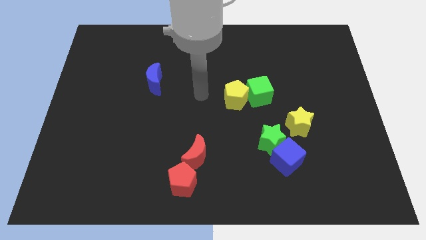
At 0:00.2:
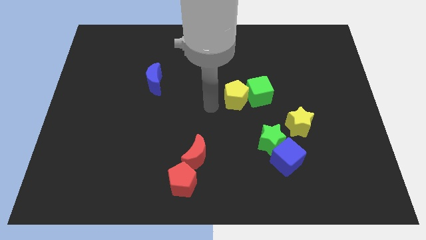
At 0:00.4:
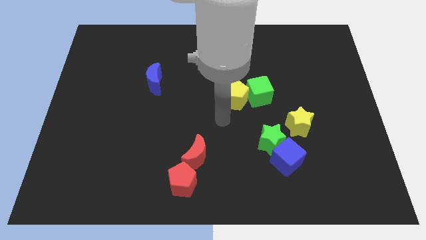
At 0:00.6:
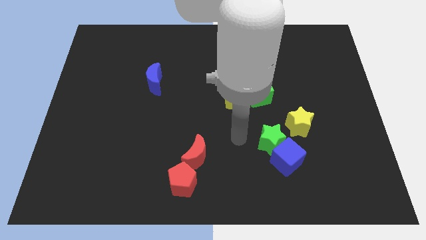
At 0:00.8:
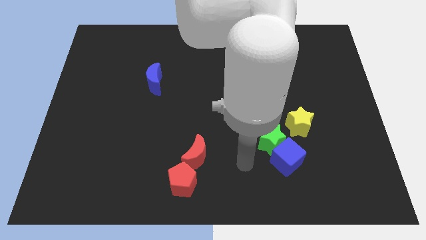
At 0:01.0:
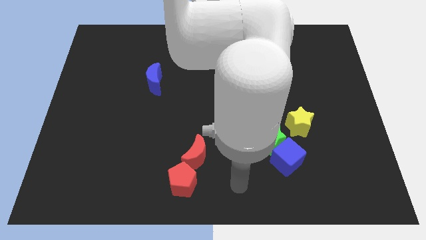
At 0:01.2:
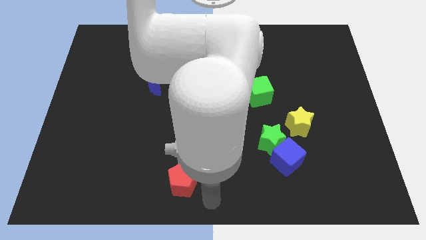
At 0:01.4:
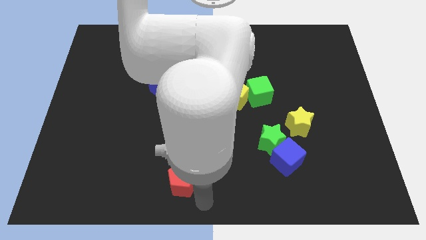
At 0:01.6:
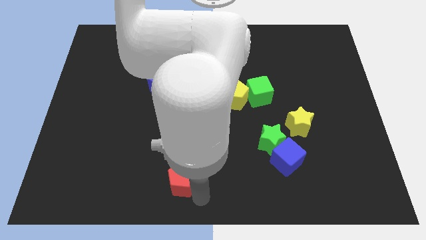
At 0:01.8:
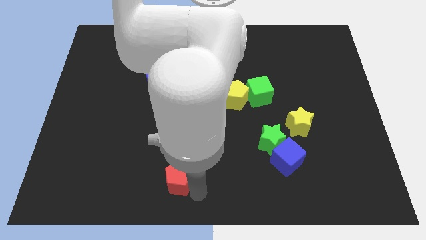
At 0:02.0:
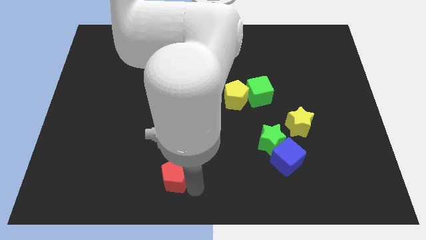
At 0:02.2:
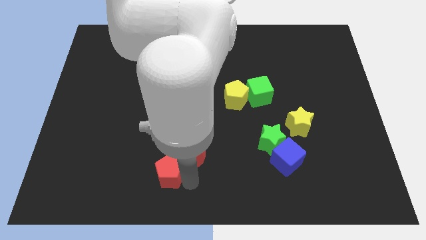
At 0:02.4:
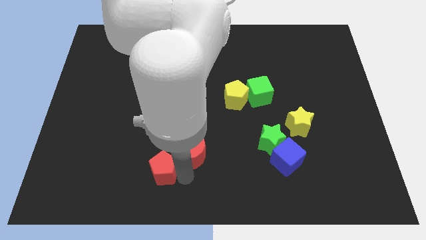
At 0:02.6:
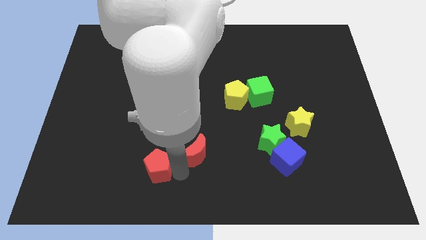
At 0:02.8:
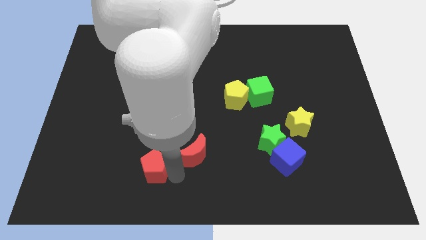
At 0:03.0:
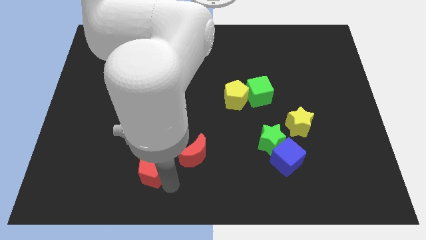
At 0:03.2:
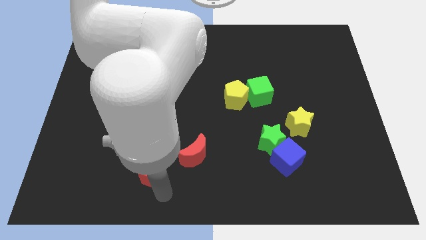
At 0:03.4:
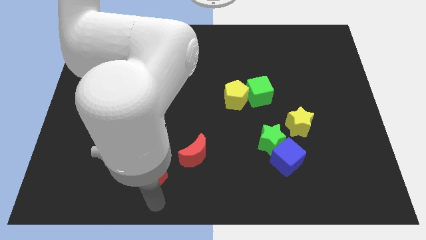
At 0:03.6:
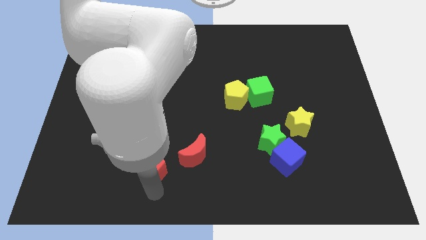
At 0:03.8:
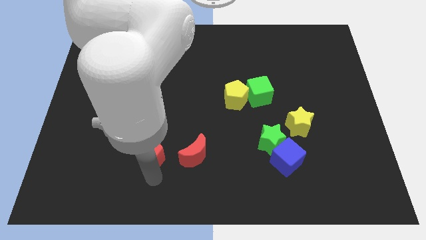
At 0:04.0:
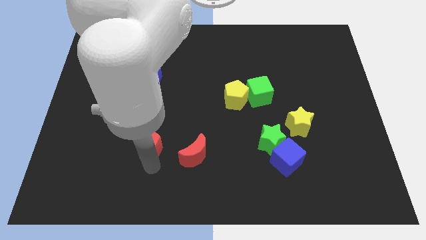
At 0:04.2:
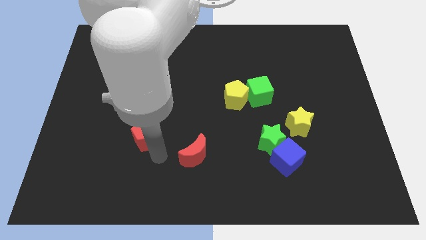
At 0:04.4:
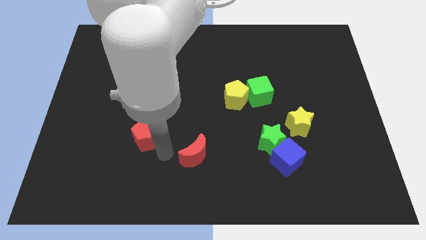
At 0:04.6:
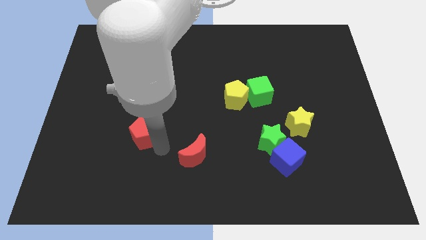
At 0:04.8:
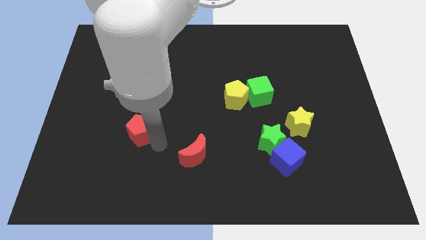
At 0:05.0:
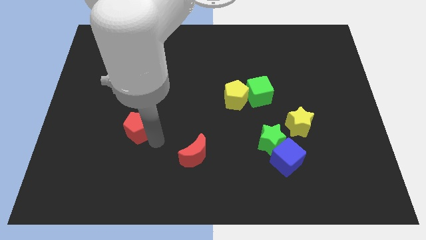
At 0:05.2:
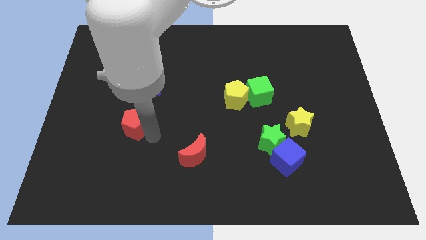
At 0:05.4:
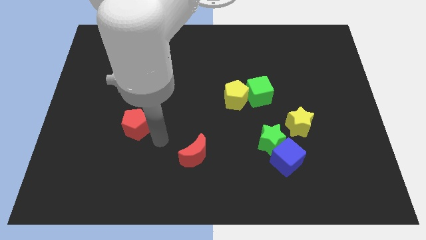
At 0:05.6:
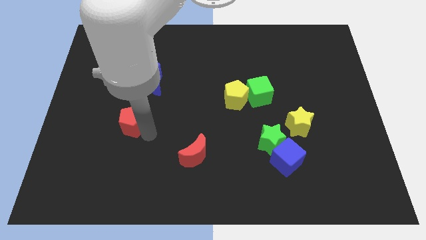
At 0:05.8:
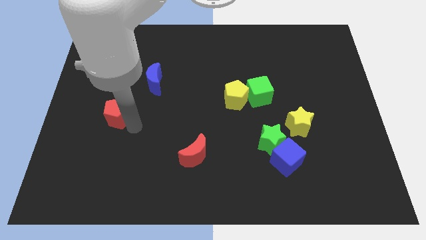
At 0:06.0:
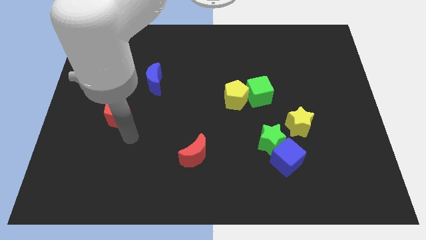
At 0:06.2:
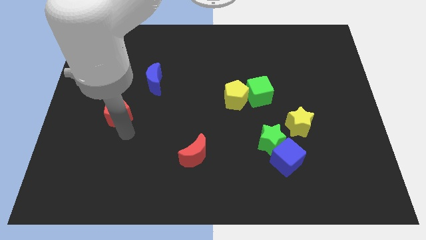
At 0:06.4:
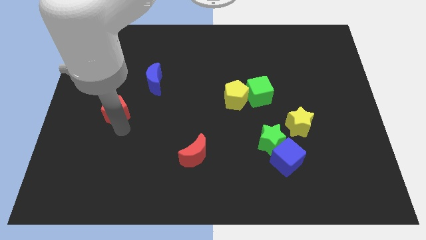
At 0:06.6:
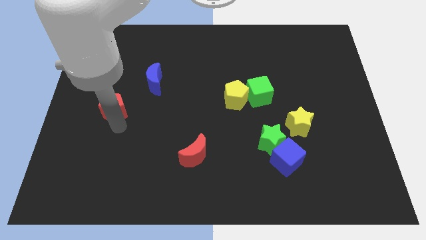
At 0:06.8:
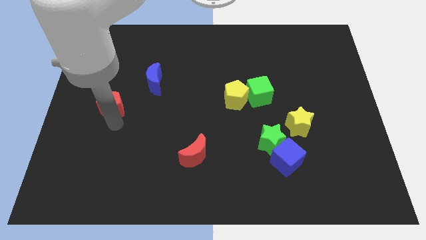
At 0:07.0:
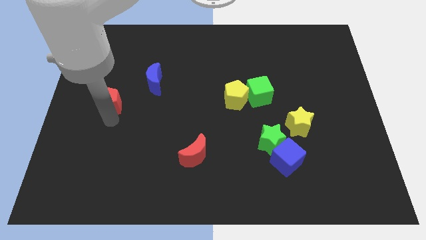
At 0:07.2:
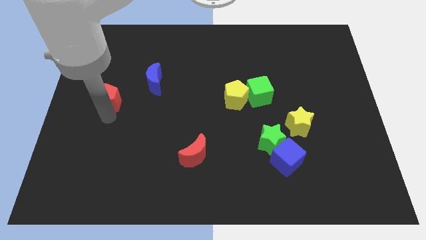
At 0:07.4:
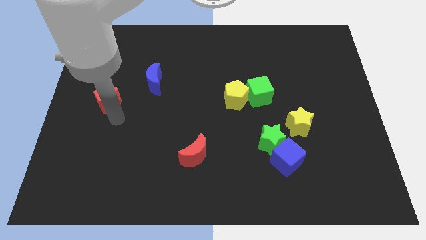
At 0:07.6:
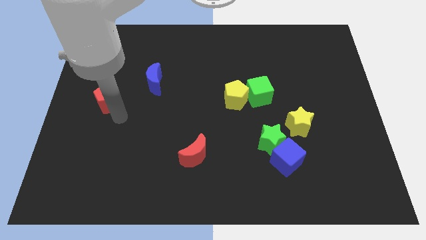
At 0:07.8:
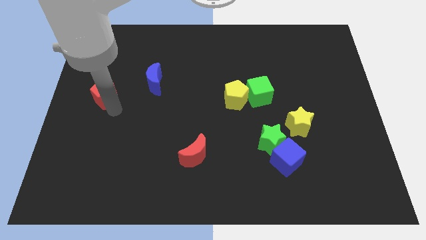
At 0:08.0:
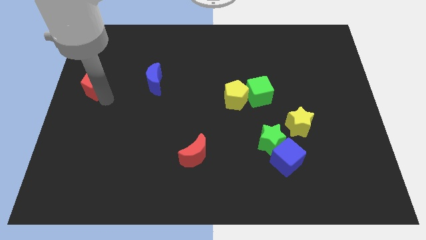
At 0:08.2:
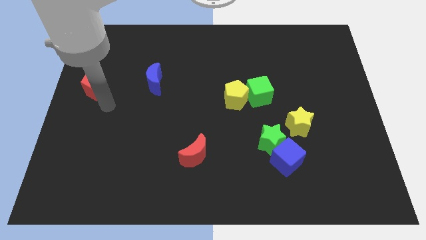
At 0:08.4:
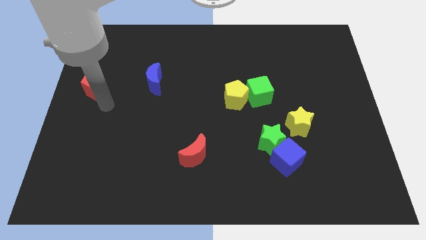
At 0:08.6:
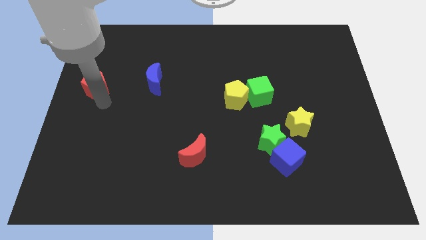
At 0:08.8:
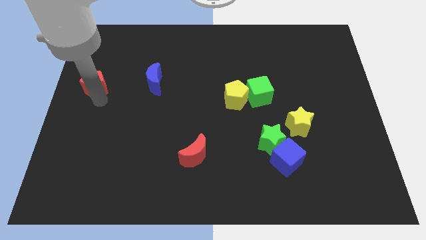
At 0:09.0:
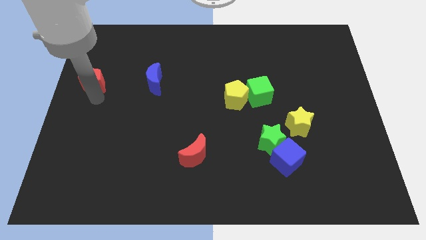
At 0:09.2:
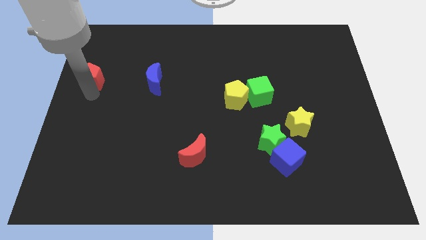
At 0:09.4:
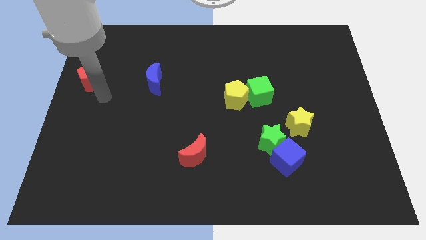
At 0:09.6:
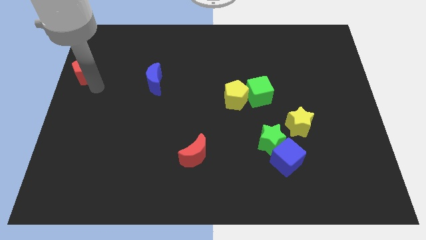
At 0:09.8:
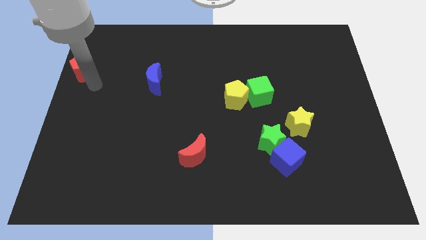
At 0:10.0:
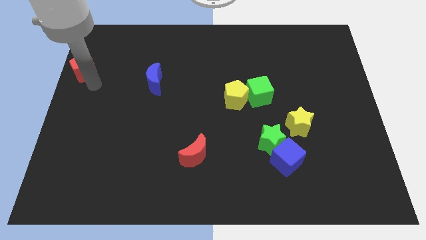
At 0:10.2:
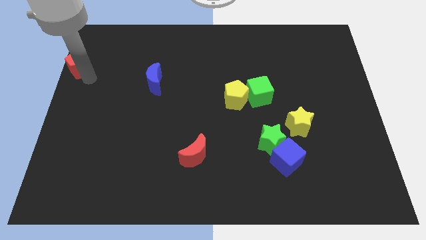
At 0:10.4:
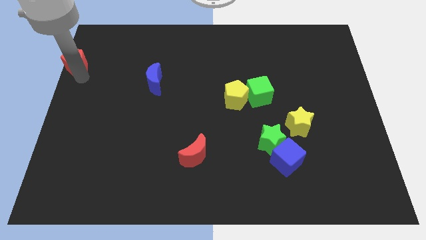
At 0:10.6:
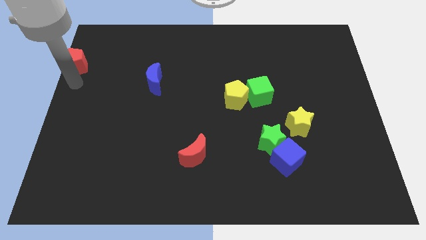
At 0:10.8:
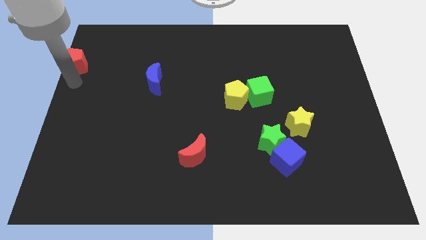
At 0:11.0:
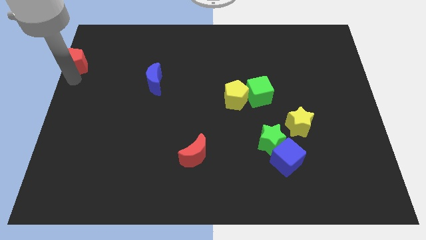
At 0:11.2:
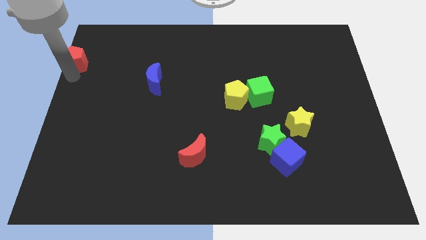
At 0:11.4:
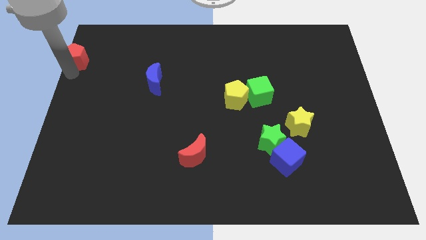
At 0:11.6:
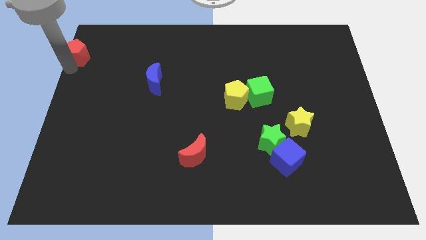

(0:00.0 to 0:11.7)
push the red pentagon to the upper left corner

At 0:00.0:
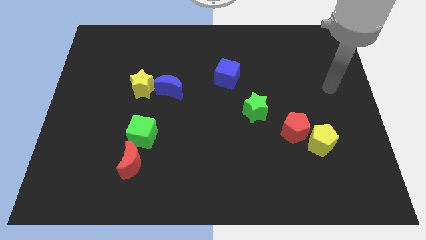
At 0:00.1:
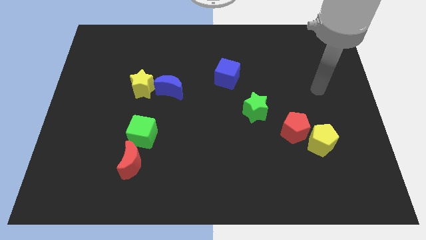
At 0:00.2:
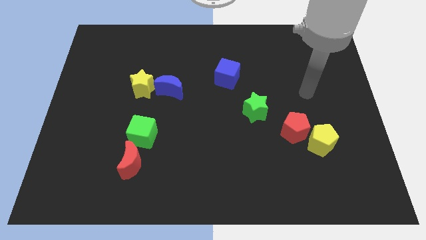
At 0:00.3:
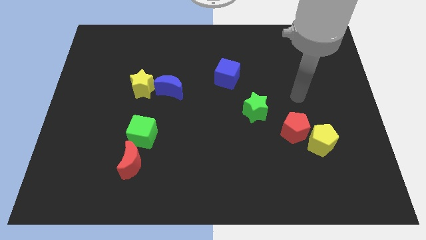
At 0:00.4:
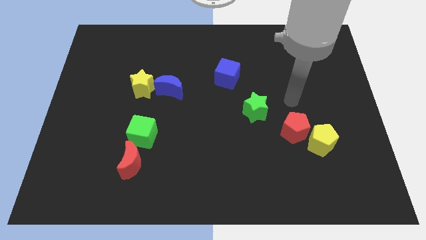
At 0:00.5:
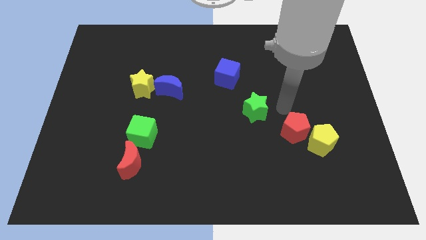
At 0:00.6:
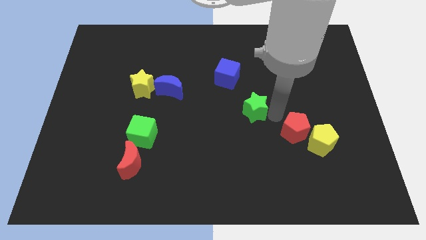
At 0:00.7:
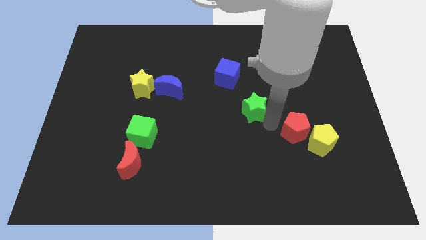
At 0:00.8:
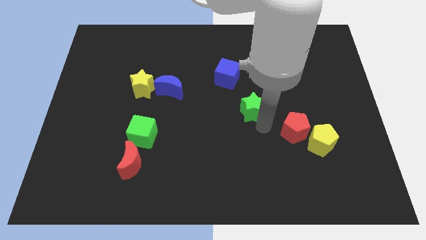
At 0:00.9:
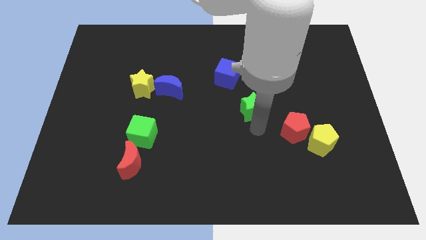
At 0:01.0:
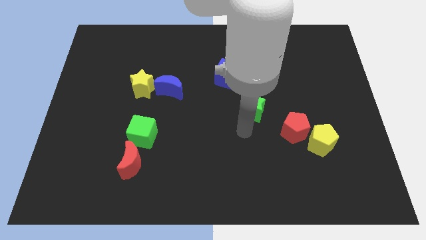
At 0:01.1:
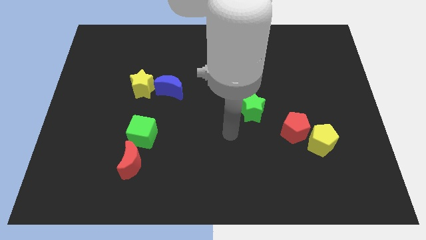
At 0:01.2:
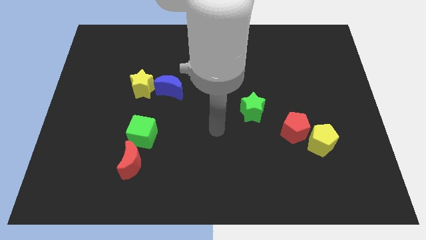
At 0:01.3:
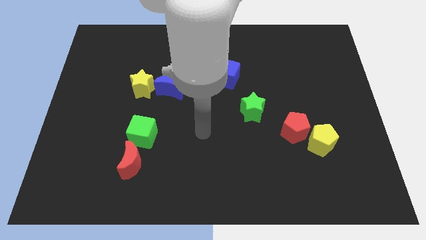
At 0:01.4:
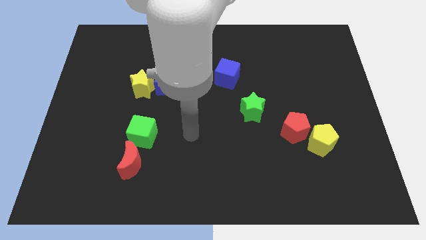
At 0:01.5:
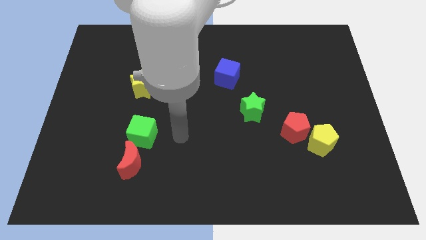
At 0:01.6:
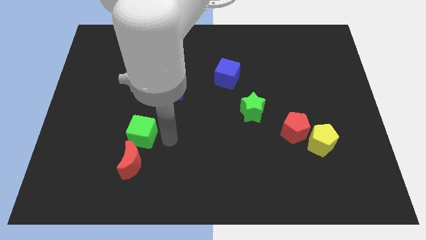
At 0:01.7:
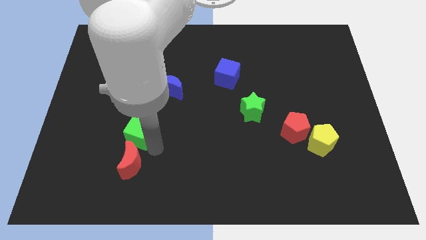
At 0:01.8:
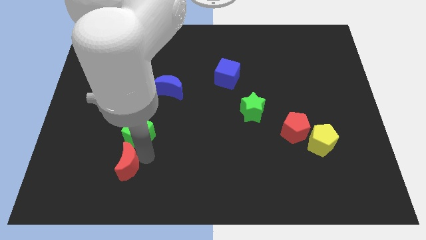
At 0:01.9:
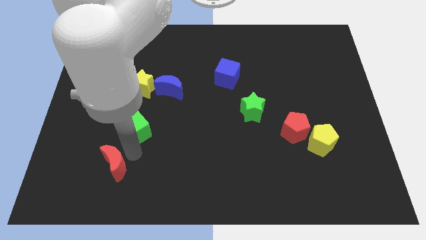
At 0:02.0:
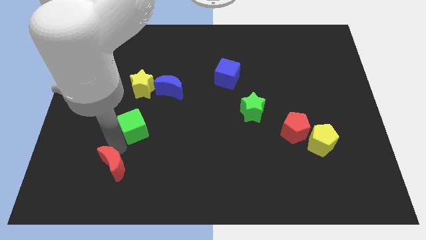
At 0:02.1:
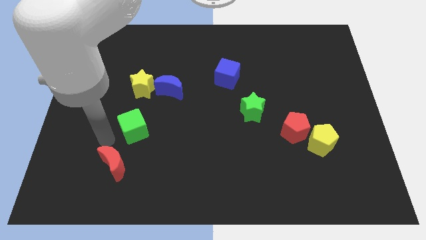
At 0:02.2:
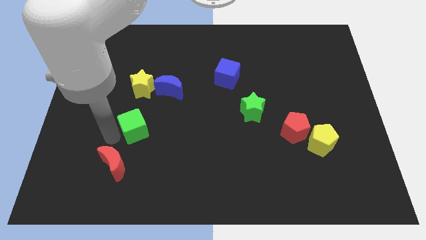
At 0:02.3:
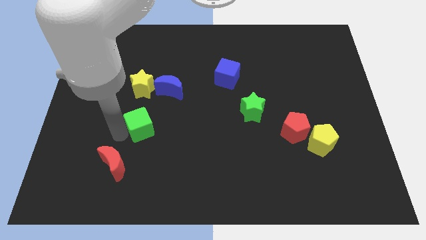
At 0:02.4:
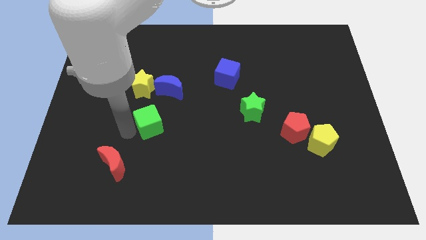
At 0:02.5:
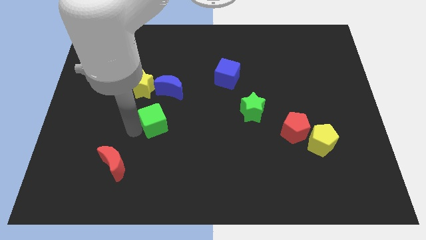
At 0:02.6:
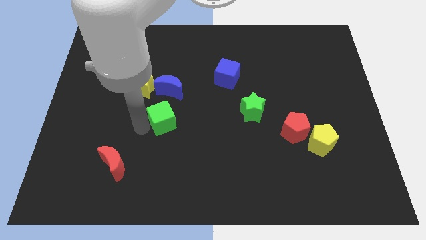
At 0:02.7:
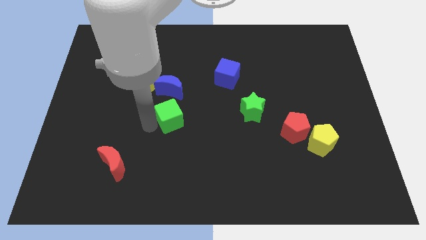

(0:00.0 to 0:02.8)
slide the green cube to the middle
